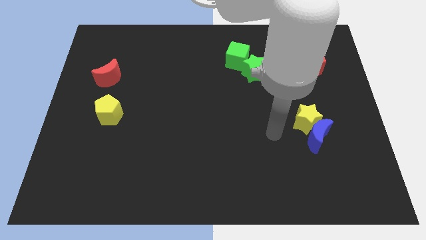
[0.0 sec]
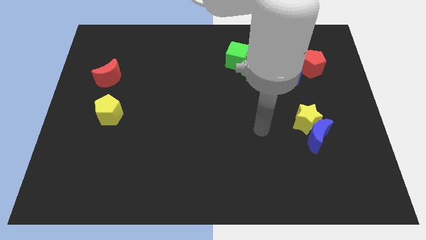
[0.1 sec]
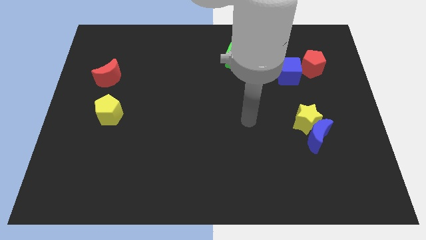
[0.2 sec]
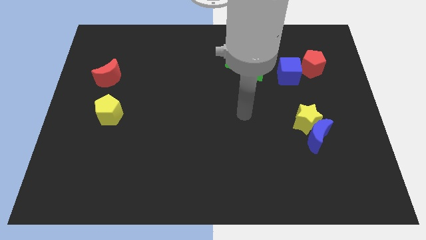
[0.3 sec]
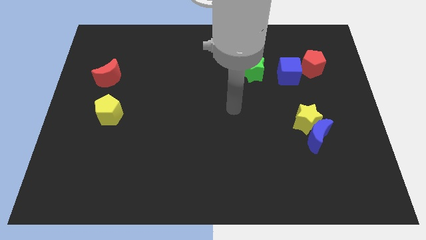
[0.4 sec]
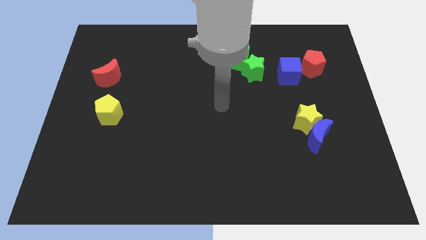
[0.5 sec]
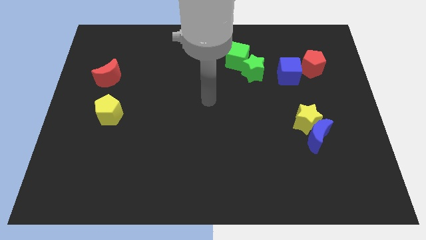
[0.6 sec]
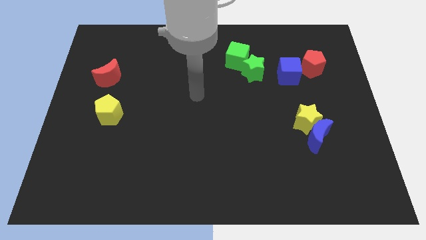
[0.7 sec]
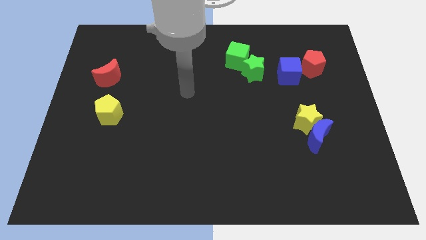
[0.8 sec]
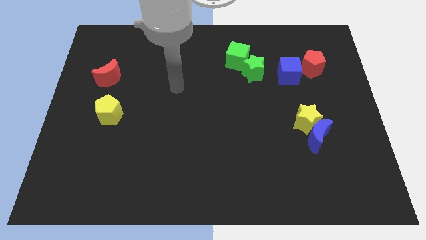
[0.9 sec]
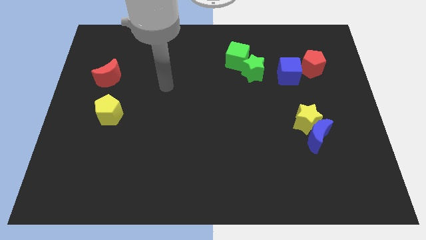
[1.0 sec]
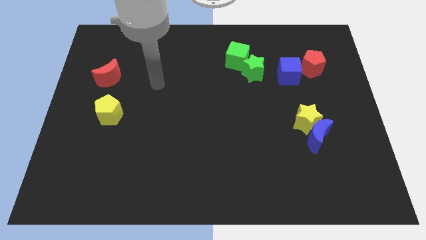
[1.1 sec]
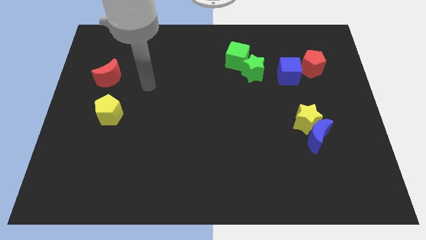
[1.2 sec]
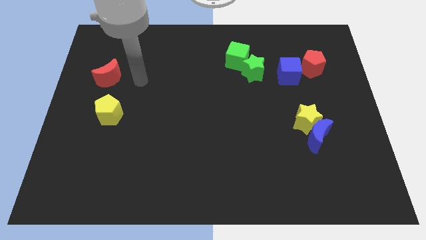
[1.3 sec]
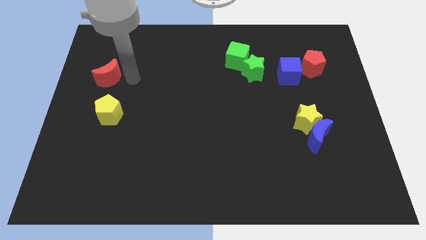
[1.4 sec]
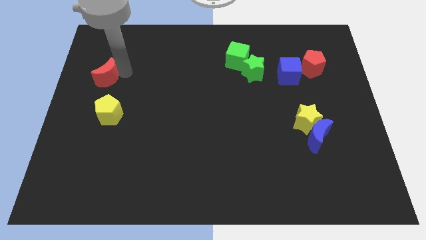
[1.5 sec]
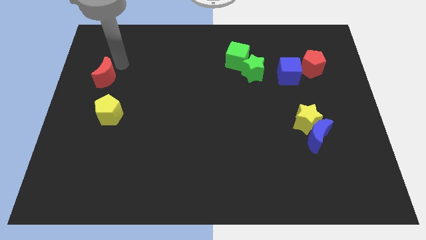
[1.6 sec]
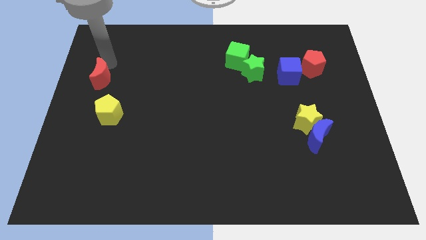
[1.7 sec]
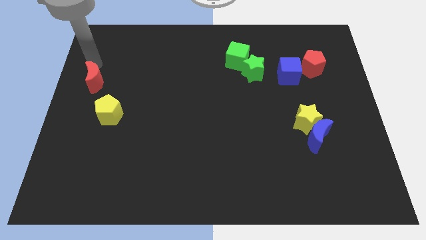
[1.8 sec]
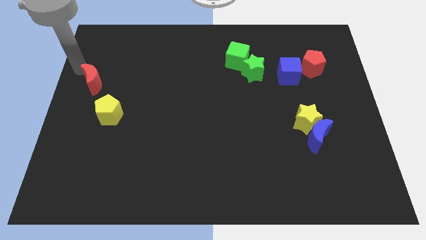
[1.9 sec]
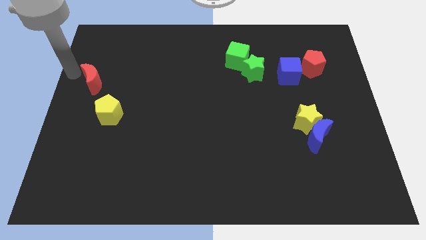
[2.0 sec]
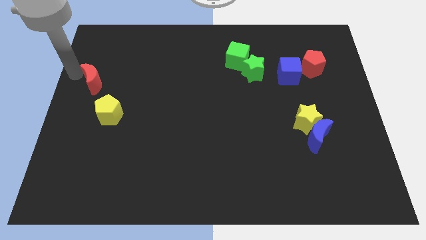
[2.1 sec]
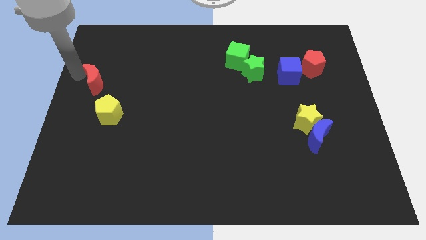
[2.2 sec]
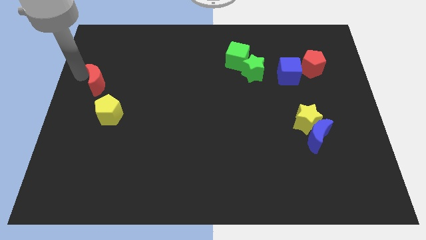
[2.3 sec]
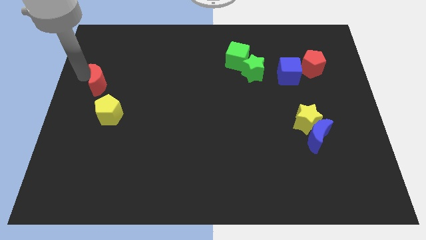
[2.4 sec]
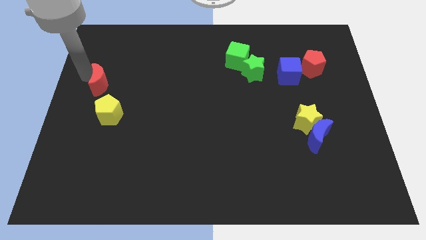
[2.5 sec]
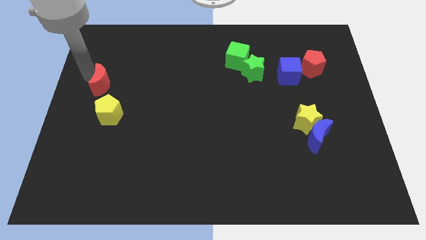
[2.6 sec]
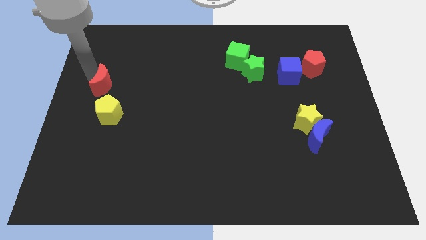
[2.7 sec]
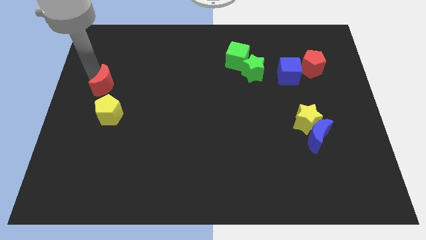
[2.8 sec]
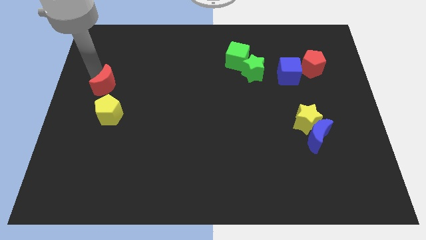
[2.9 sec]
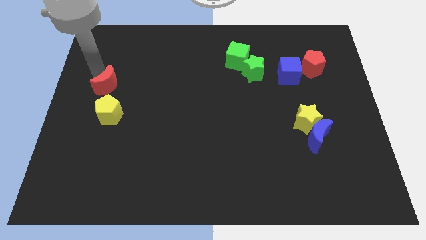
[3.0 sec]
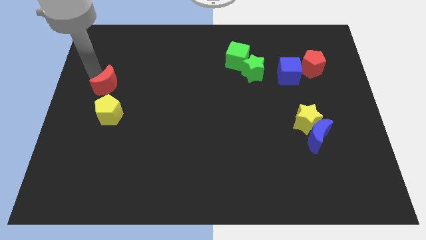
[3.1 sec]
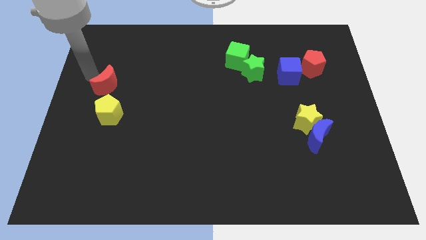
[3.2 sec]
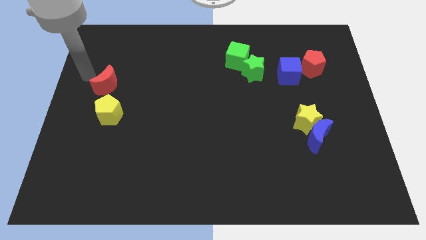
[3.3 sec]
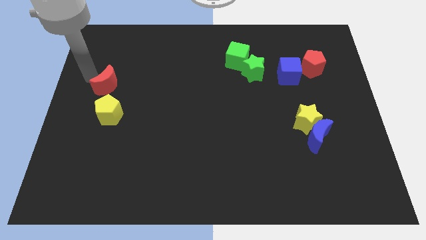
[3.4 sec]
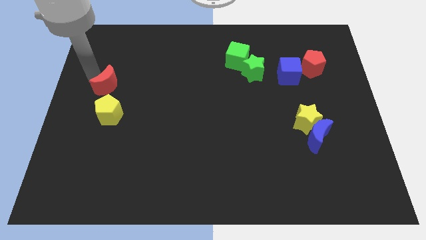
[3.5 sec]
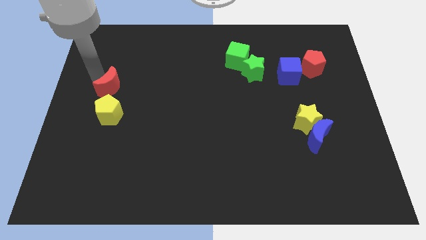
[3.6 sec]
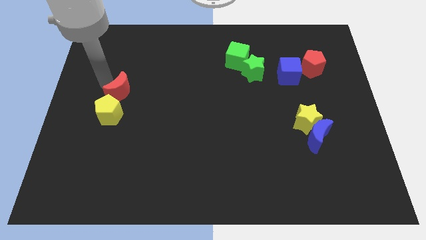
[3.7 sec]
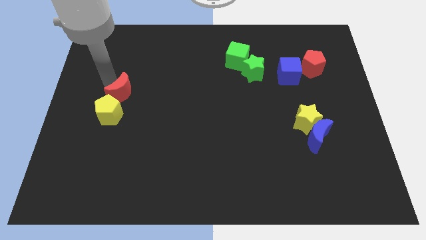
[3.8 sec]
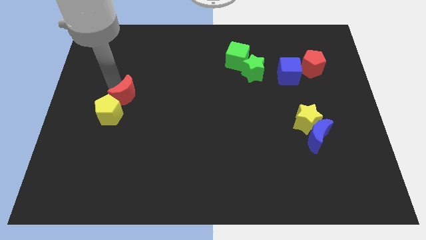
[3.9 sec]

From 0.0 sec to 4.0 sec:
push the red moon diagonally downwards and to the right a little bit

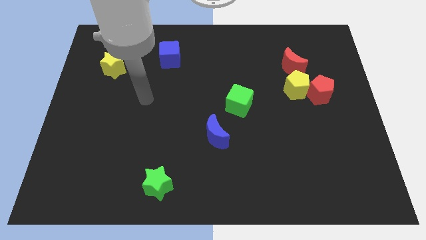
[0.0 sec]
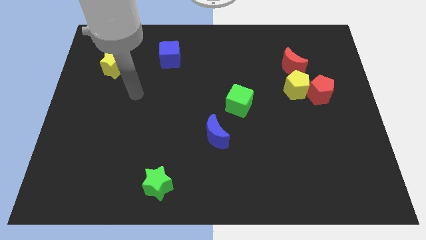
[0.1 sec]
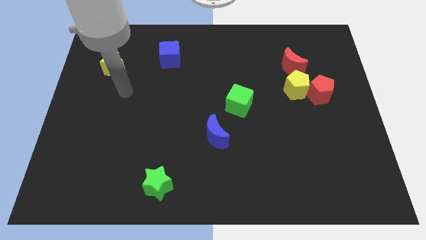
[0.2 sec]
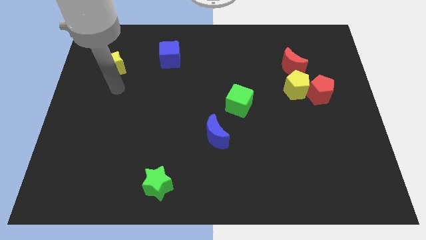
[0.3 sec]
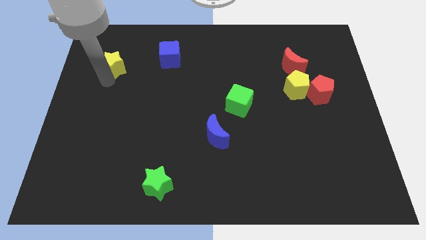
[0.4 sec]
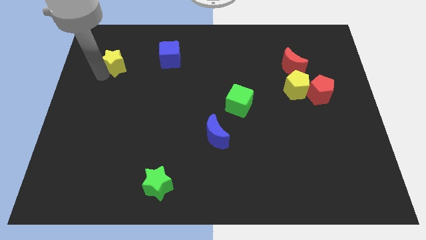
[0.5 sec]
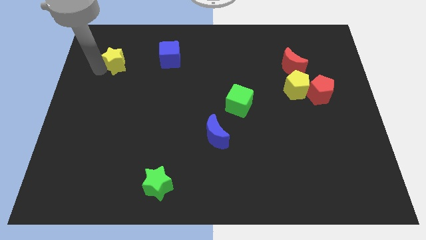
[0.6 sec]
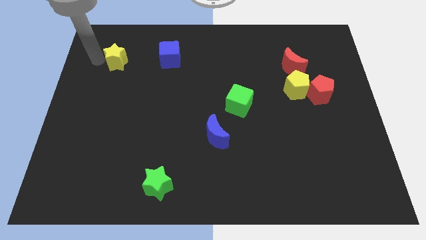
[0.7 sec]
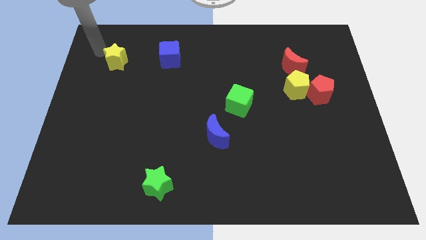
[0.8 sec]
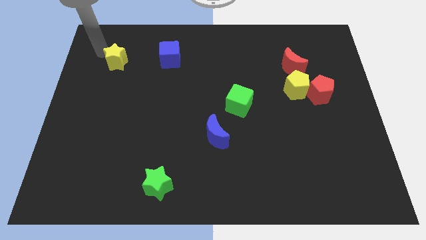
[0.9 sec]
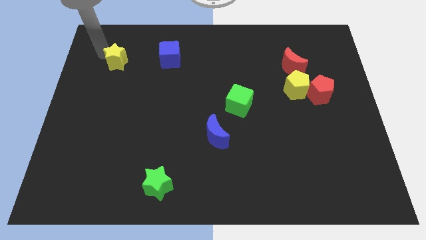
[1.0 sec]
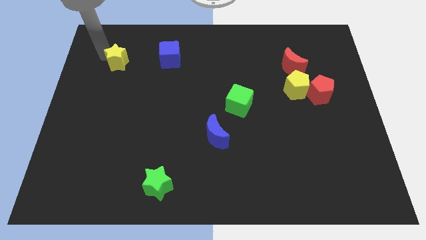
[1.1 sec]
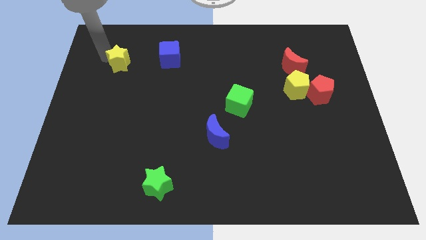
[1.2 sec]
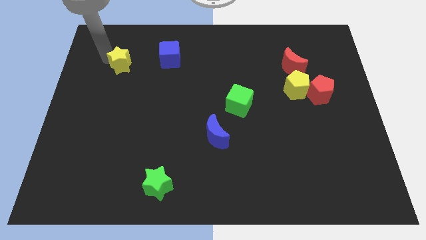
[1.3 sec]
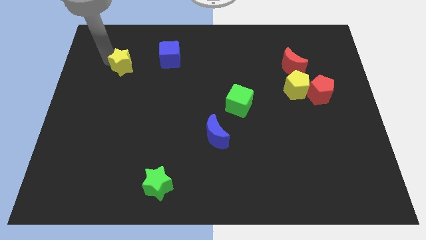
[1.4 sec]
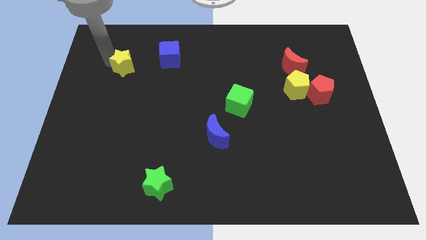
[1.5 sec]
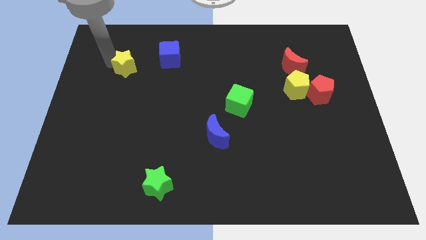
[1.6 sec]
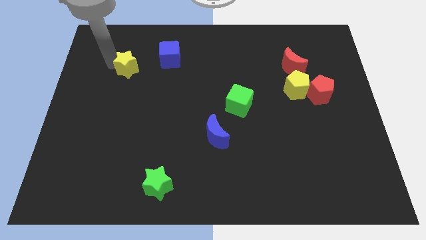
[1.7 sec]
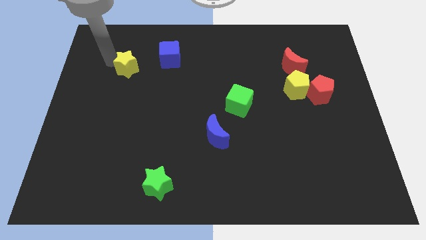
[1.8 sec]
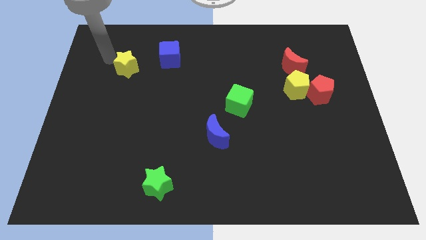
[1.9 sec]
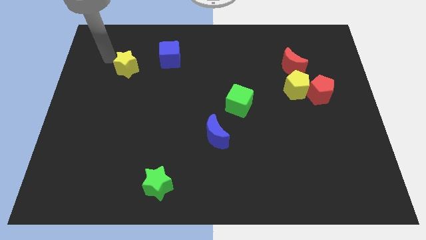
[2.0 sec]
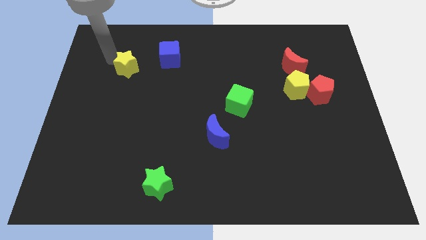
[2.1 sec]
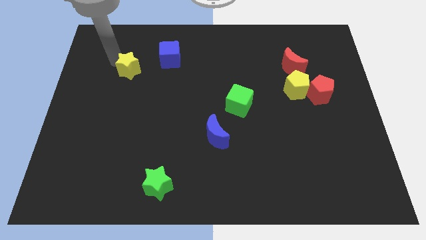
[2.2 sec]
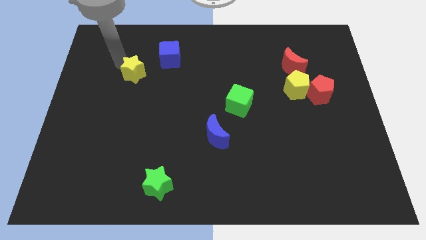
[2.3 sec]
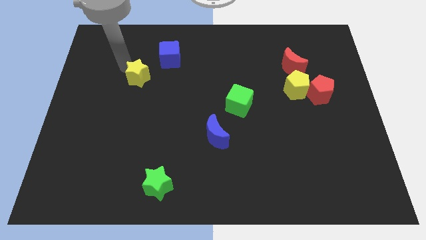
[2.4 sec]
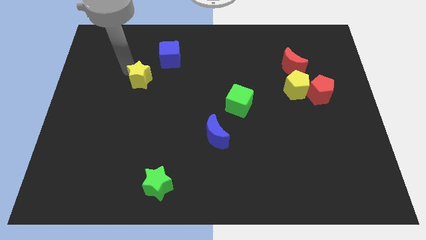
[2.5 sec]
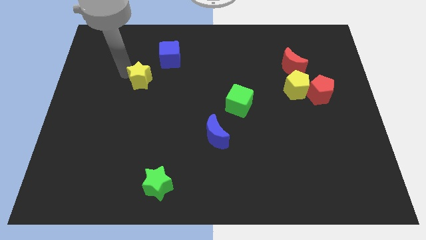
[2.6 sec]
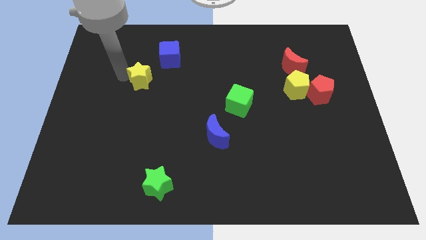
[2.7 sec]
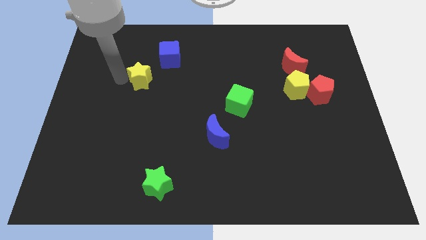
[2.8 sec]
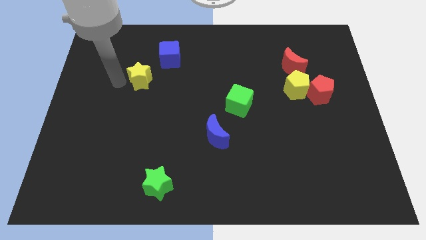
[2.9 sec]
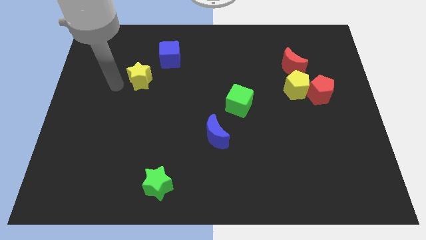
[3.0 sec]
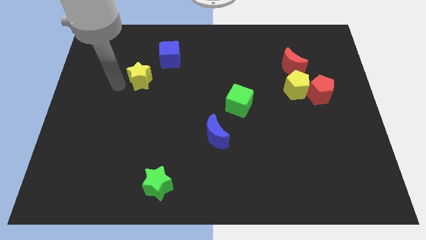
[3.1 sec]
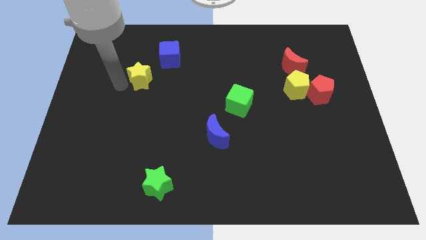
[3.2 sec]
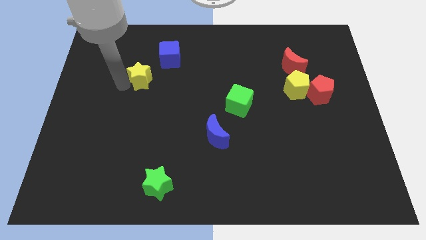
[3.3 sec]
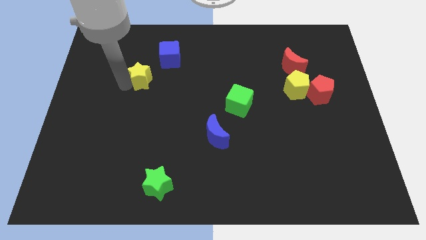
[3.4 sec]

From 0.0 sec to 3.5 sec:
slide the yellow star to the right a bit

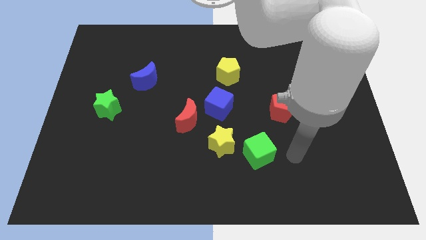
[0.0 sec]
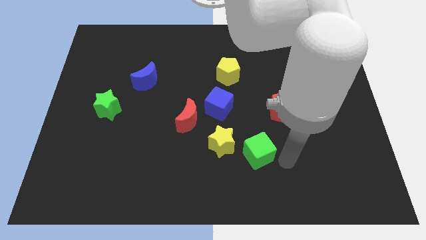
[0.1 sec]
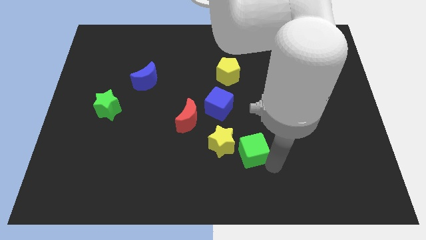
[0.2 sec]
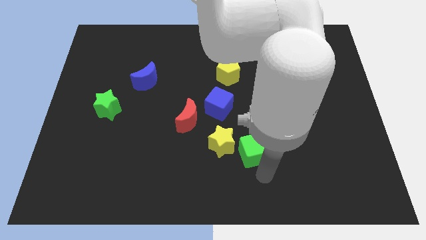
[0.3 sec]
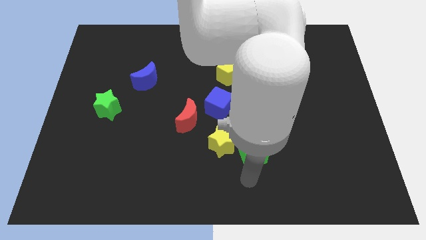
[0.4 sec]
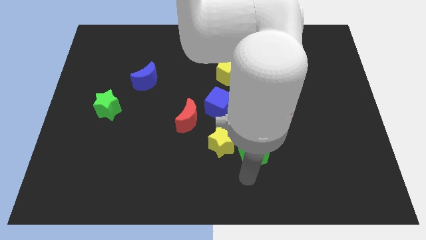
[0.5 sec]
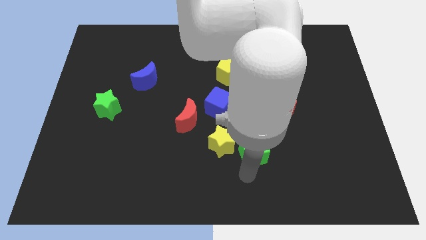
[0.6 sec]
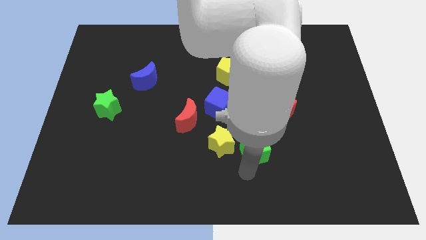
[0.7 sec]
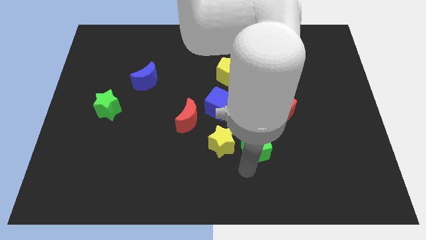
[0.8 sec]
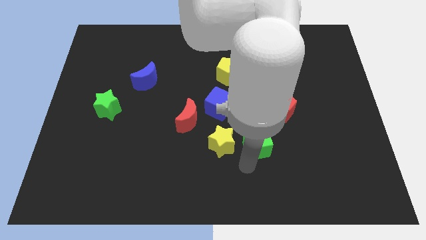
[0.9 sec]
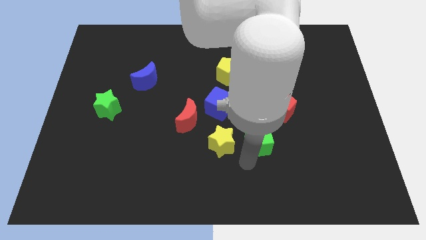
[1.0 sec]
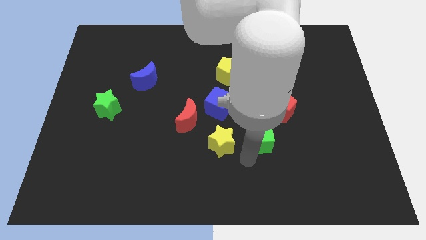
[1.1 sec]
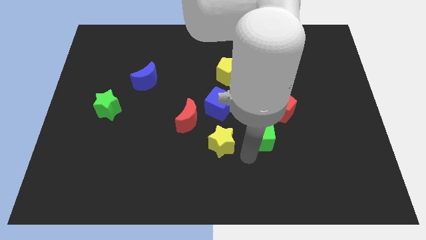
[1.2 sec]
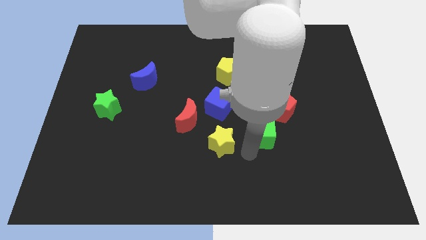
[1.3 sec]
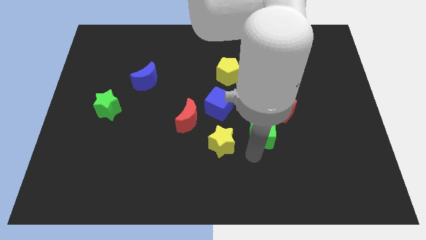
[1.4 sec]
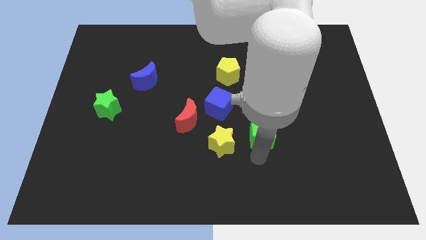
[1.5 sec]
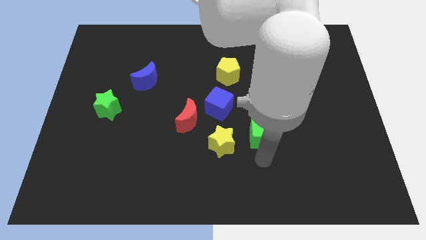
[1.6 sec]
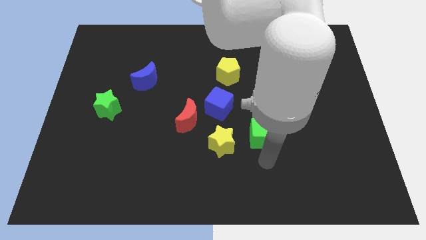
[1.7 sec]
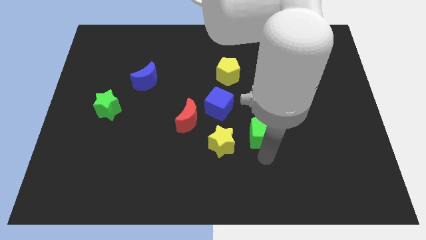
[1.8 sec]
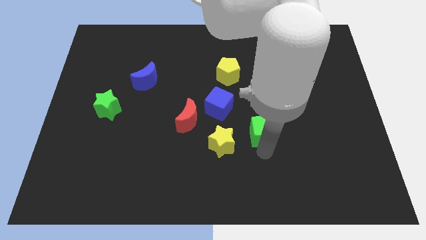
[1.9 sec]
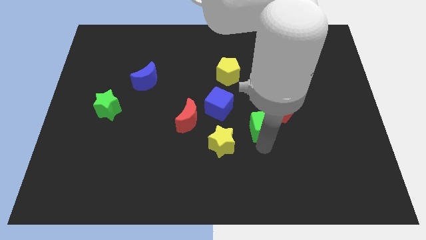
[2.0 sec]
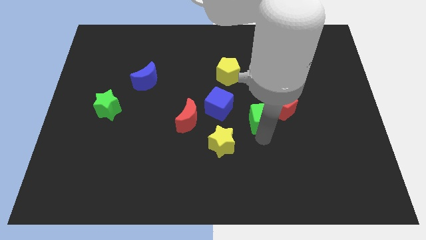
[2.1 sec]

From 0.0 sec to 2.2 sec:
move the green cube upwards a bit
